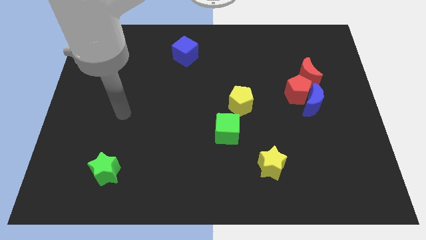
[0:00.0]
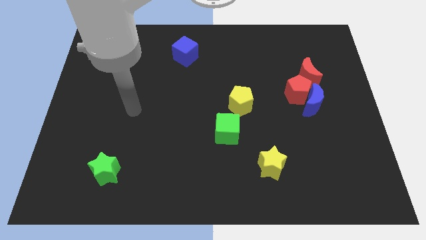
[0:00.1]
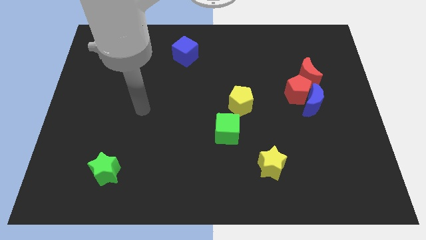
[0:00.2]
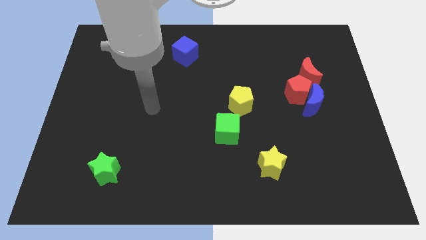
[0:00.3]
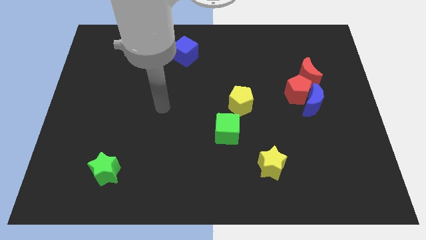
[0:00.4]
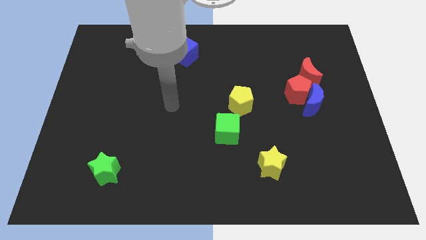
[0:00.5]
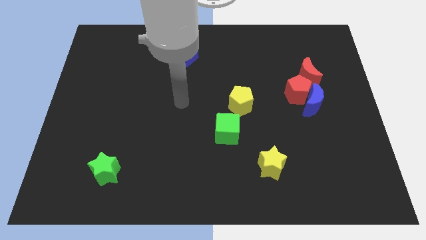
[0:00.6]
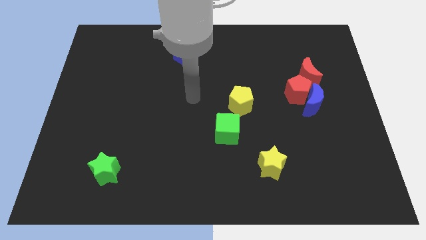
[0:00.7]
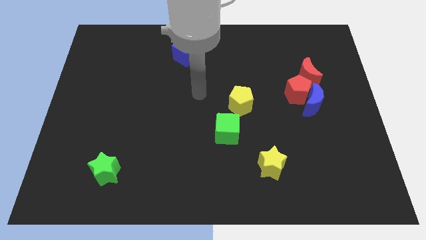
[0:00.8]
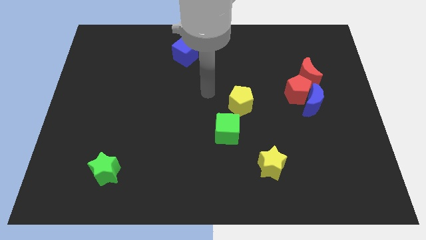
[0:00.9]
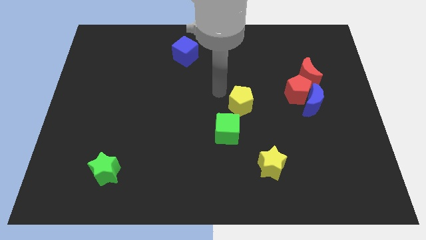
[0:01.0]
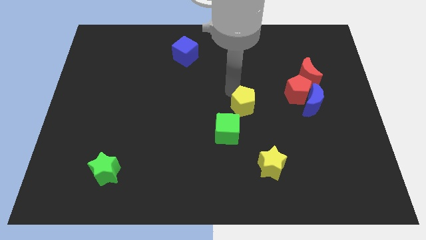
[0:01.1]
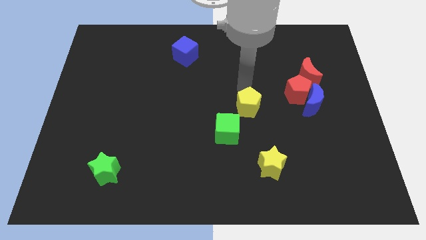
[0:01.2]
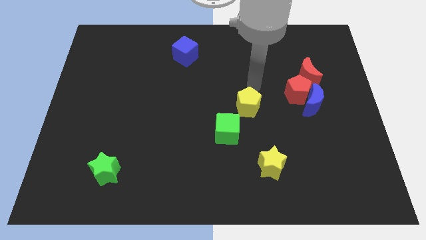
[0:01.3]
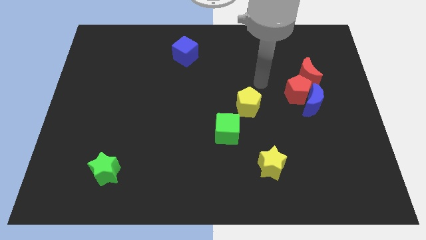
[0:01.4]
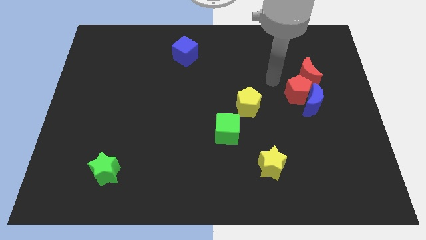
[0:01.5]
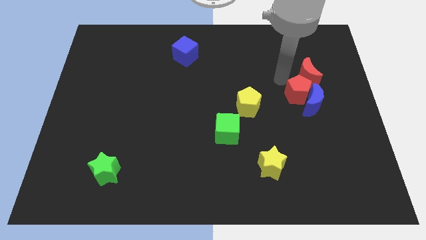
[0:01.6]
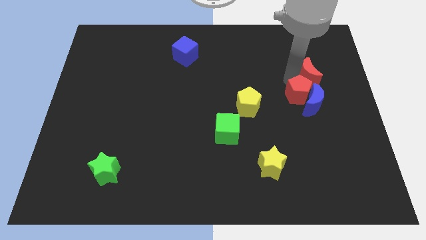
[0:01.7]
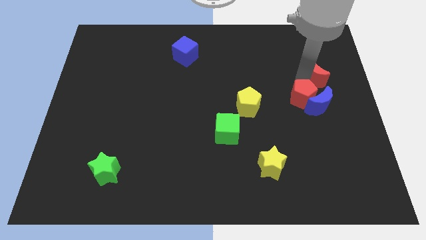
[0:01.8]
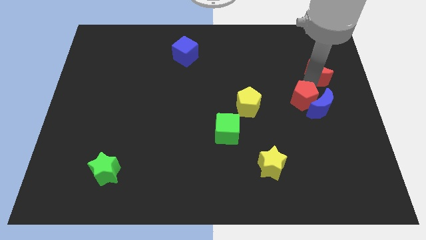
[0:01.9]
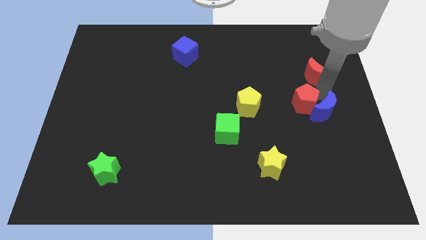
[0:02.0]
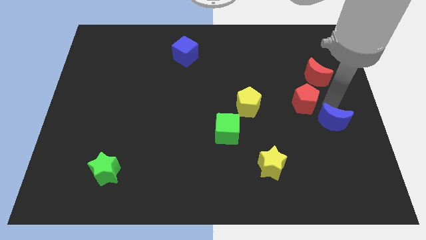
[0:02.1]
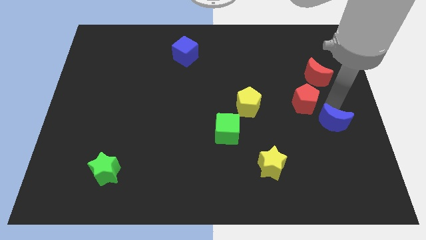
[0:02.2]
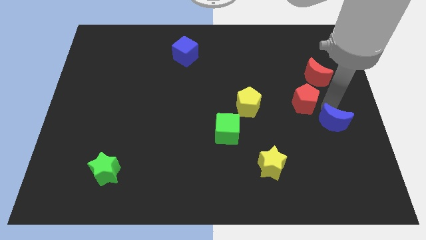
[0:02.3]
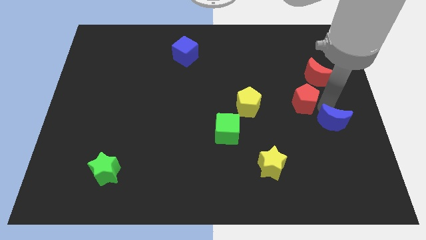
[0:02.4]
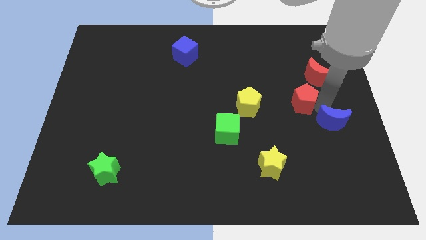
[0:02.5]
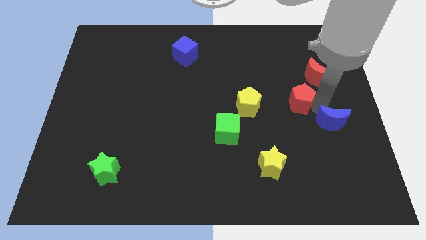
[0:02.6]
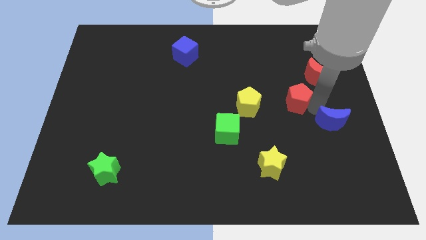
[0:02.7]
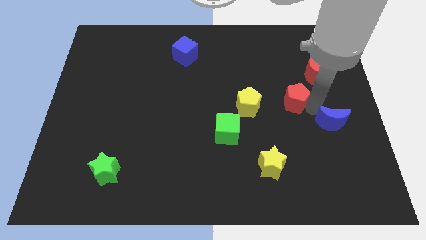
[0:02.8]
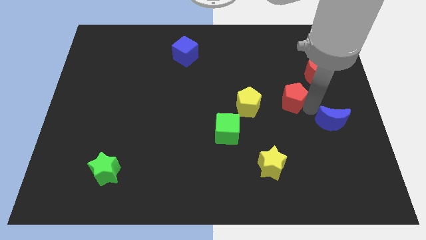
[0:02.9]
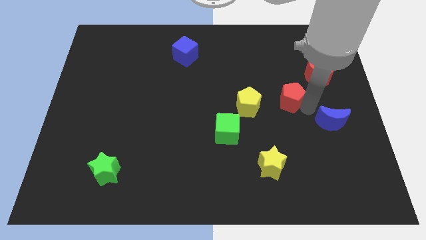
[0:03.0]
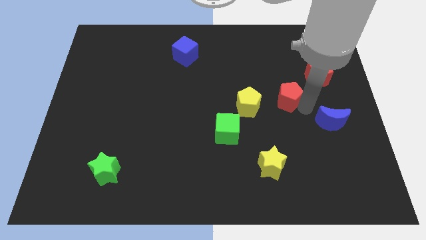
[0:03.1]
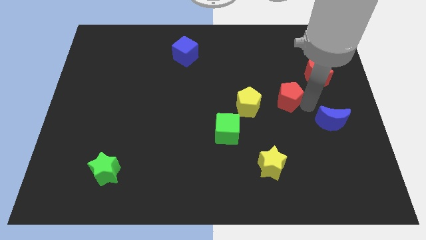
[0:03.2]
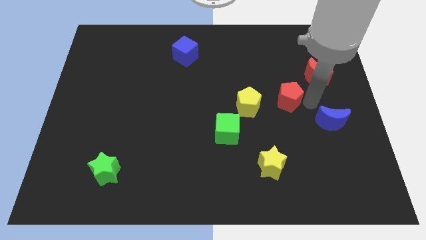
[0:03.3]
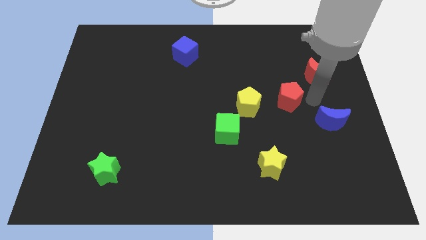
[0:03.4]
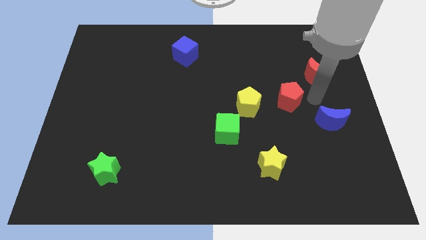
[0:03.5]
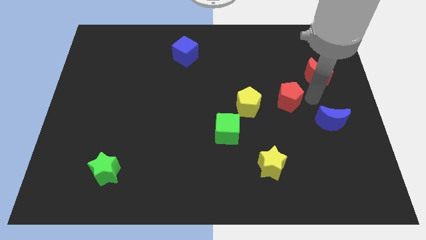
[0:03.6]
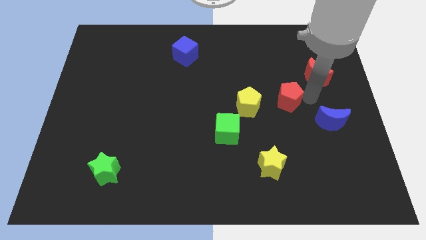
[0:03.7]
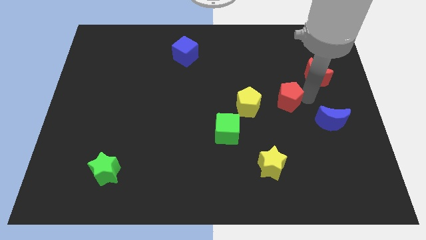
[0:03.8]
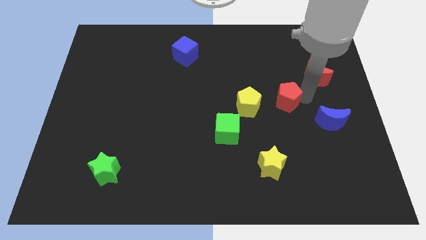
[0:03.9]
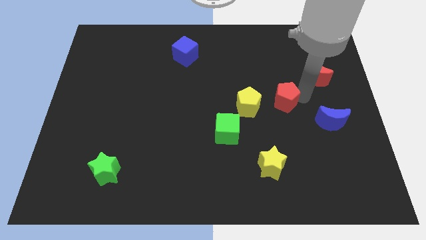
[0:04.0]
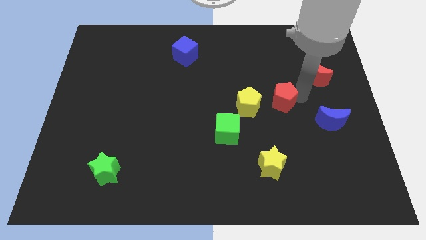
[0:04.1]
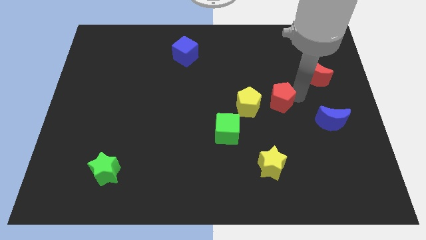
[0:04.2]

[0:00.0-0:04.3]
separate the red pentagon from the blue moon and red moon

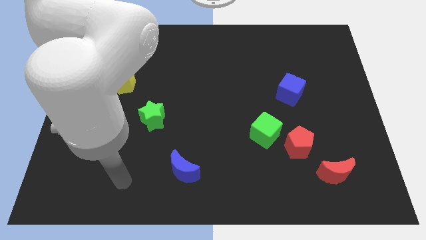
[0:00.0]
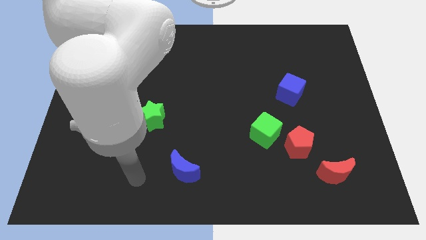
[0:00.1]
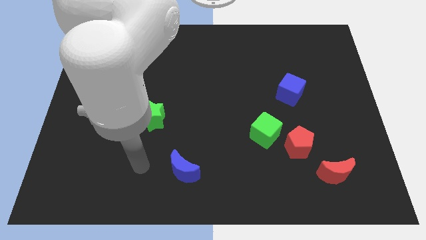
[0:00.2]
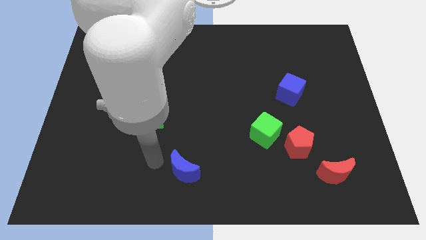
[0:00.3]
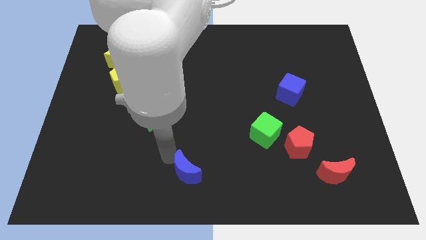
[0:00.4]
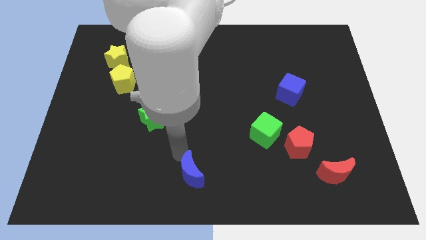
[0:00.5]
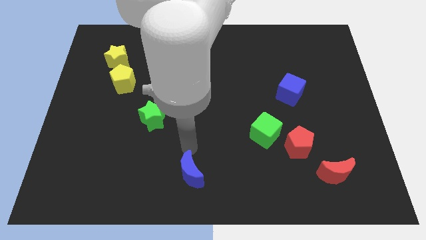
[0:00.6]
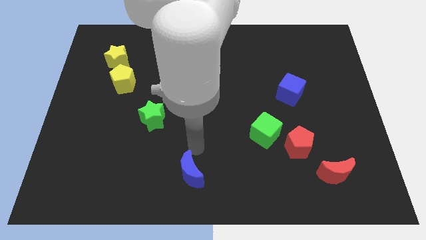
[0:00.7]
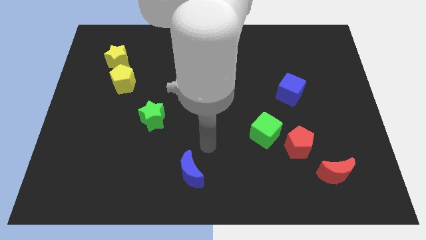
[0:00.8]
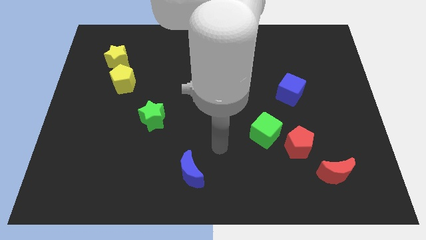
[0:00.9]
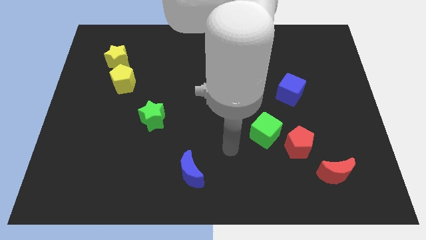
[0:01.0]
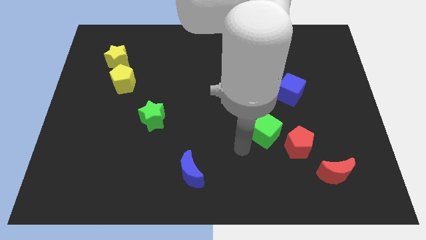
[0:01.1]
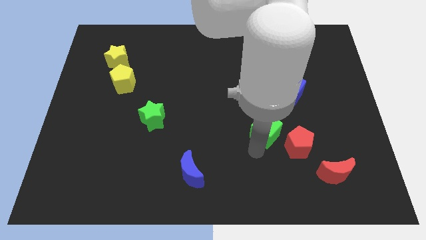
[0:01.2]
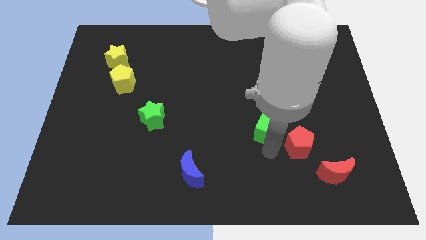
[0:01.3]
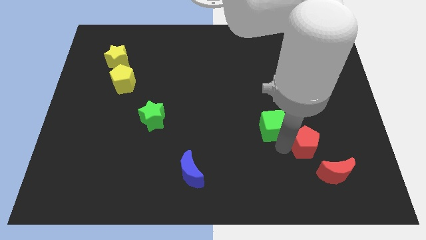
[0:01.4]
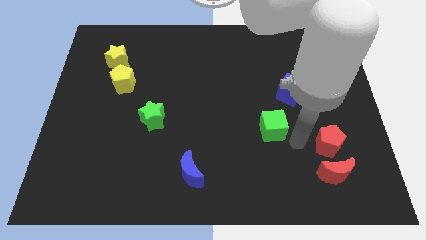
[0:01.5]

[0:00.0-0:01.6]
separate the green cube from the red pentagon

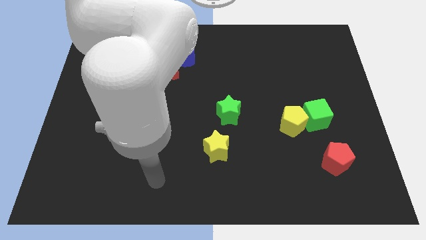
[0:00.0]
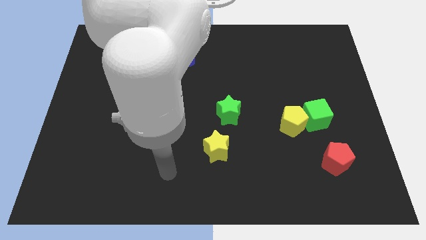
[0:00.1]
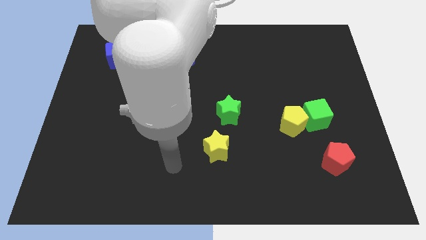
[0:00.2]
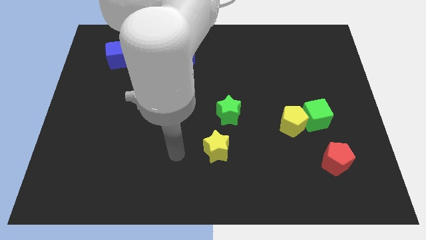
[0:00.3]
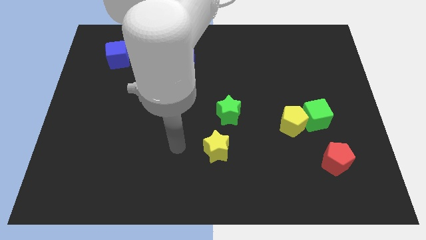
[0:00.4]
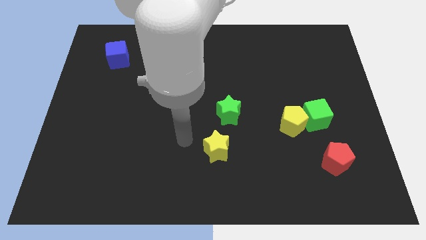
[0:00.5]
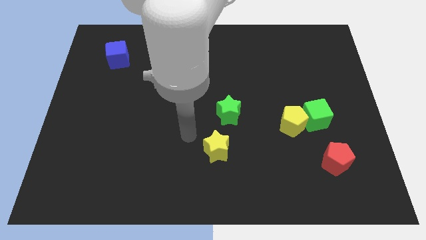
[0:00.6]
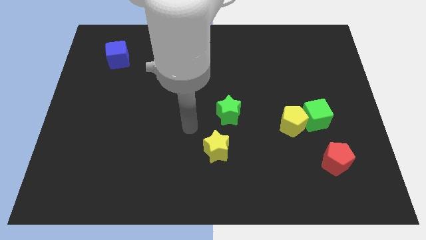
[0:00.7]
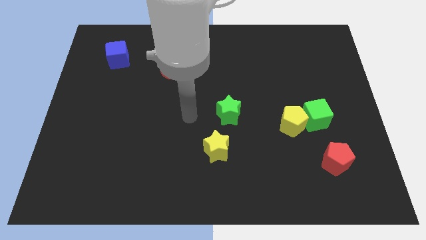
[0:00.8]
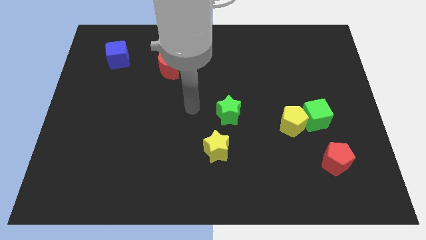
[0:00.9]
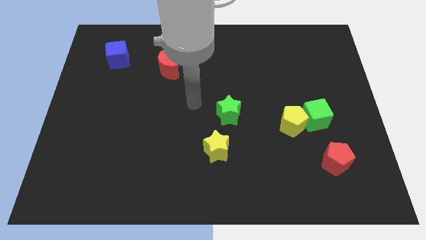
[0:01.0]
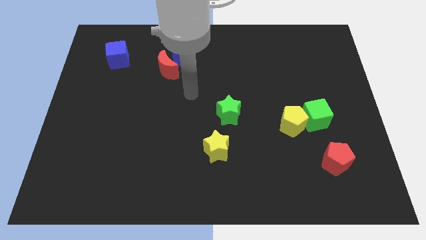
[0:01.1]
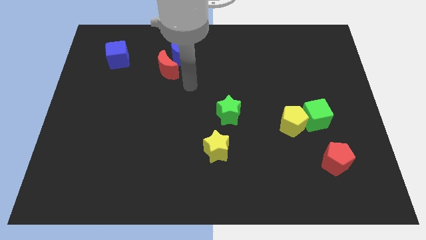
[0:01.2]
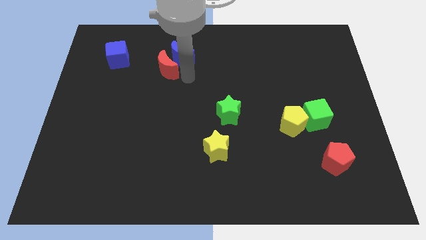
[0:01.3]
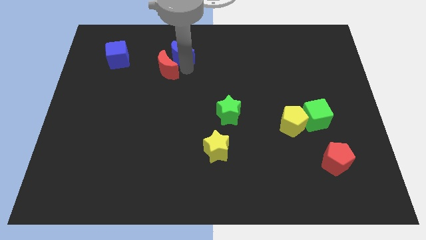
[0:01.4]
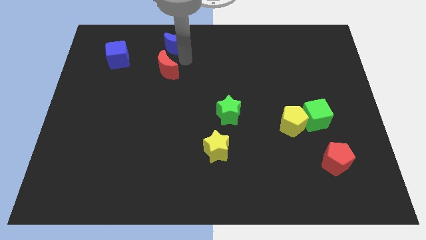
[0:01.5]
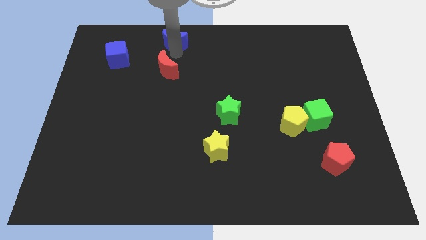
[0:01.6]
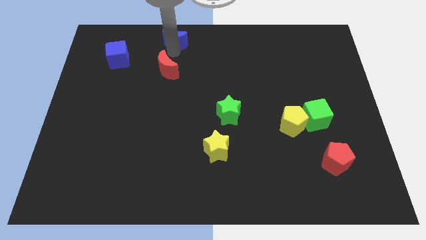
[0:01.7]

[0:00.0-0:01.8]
separate the red moon from the blue moon

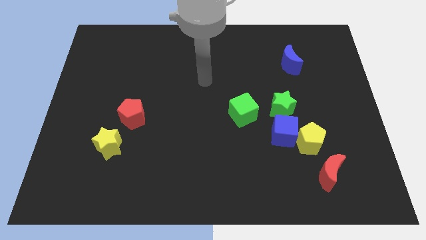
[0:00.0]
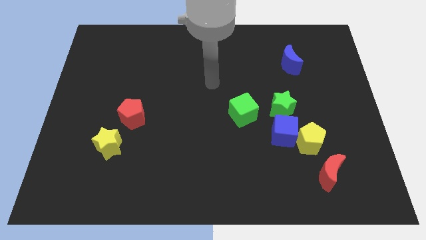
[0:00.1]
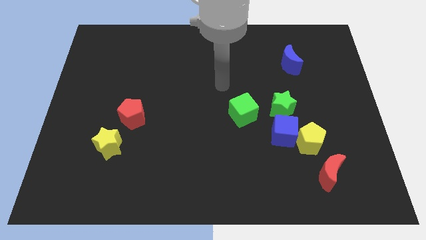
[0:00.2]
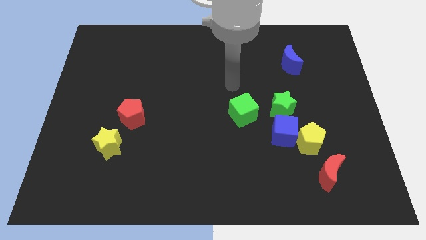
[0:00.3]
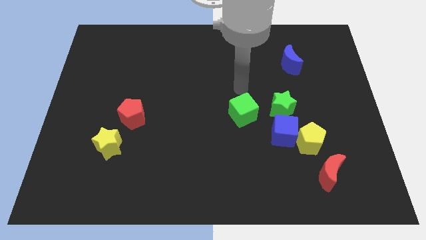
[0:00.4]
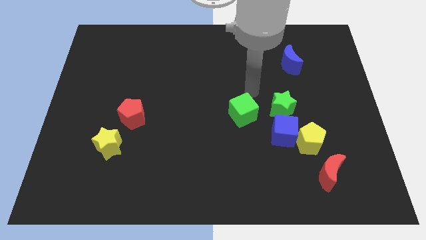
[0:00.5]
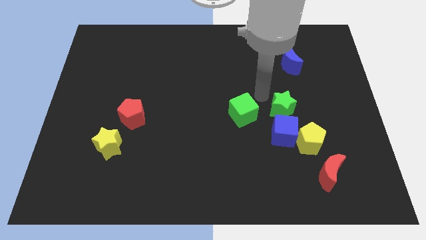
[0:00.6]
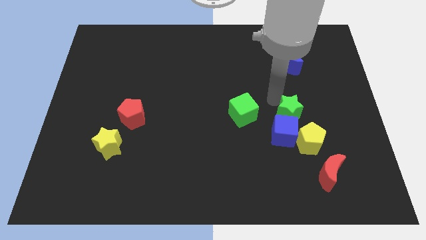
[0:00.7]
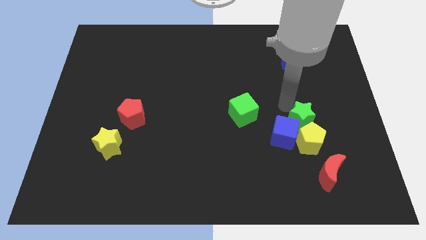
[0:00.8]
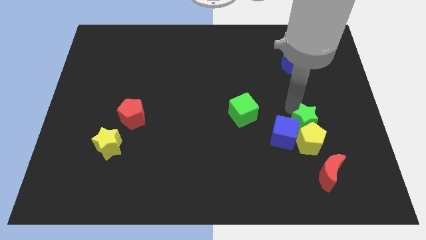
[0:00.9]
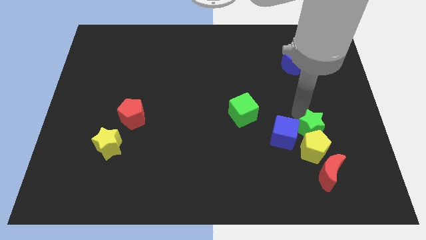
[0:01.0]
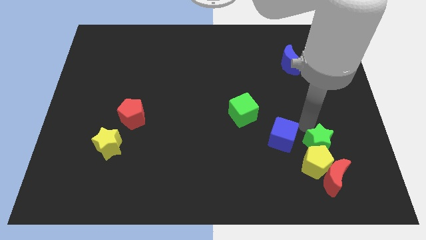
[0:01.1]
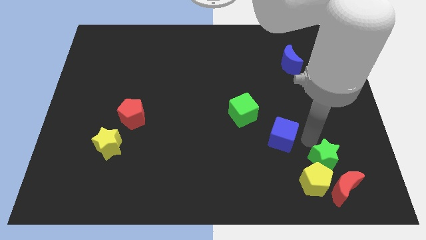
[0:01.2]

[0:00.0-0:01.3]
pull the blue cube apart from the yellow pentagon and green star

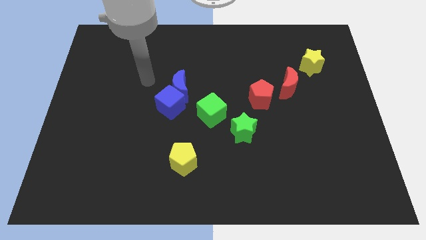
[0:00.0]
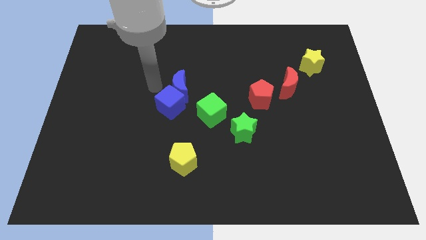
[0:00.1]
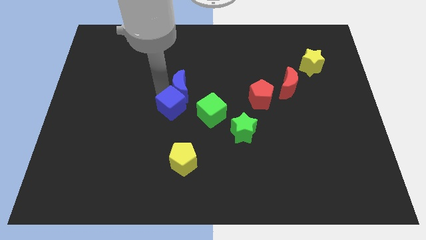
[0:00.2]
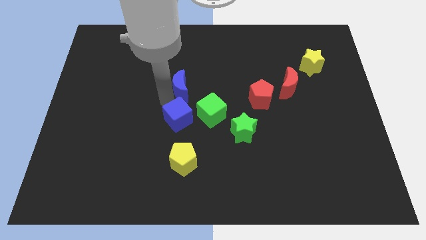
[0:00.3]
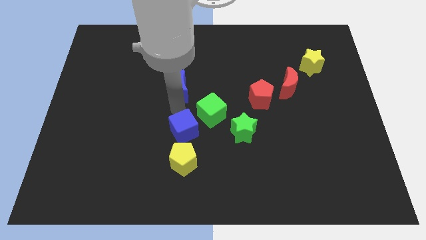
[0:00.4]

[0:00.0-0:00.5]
separate the blue moon from the blue cube
